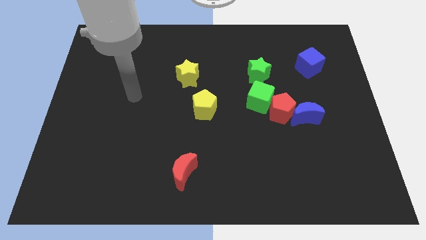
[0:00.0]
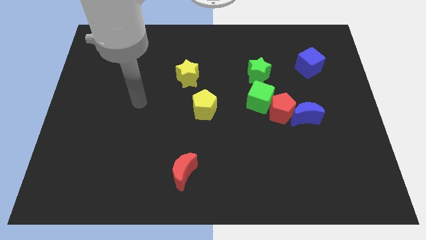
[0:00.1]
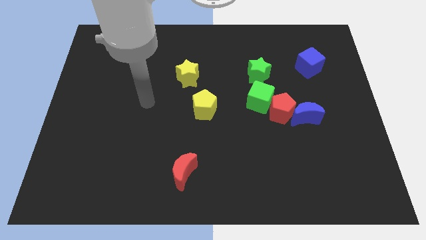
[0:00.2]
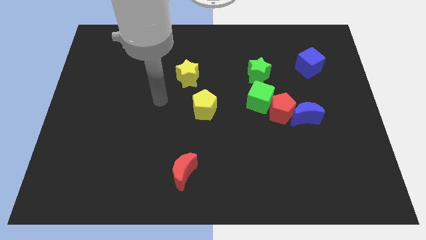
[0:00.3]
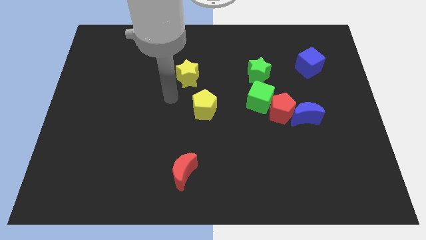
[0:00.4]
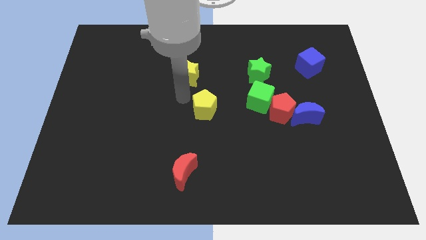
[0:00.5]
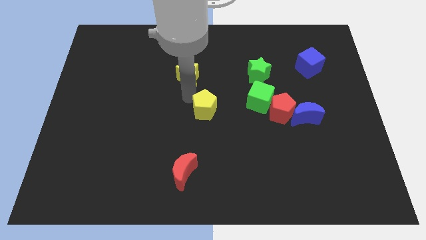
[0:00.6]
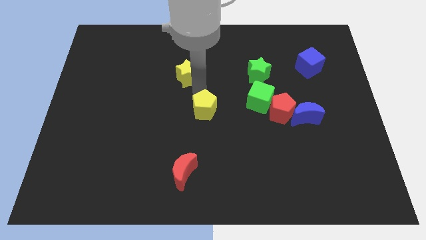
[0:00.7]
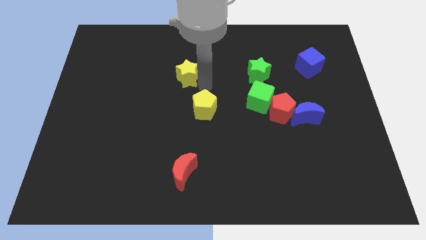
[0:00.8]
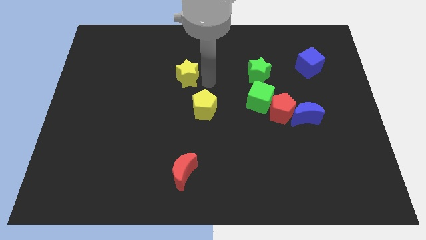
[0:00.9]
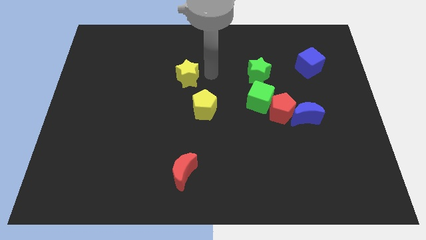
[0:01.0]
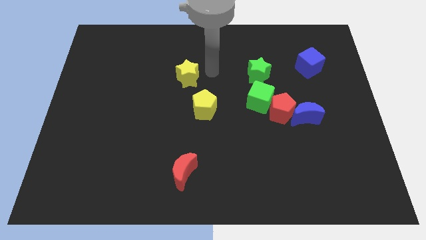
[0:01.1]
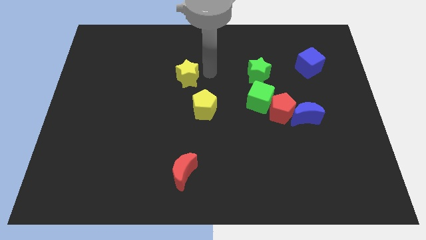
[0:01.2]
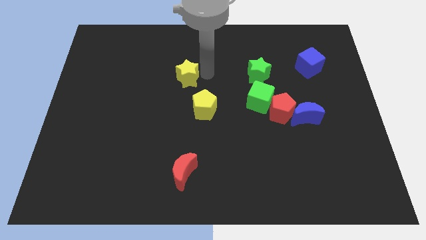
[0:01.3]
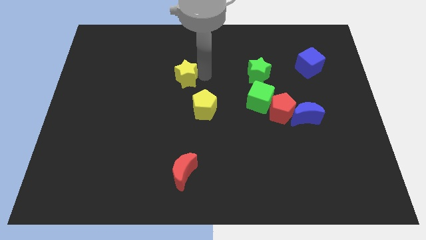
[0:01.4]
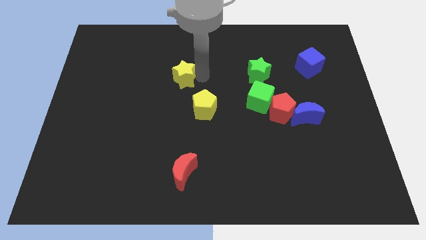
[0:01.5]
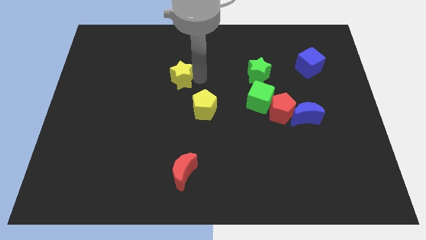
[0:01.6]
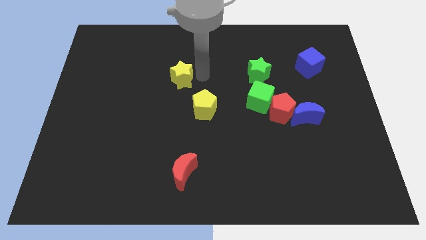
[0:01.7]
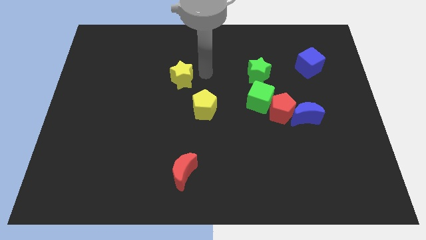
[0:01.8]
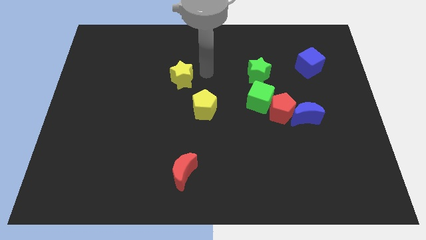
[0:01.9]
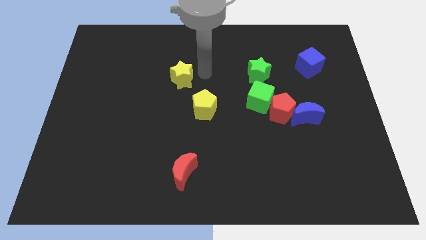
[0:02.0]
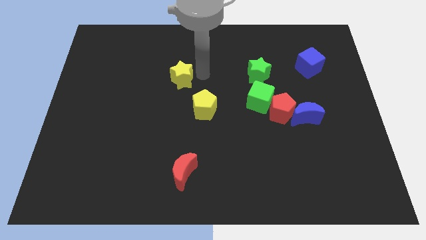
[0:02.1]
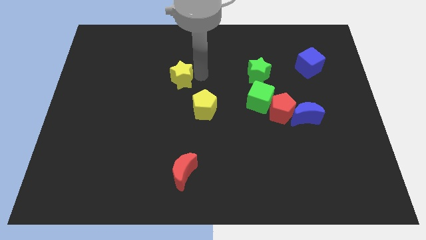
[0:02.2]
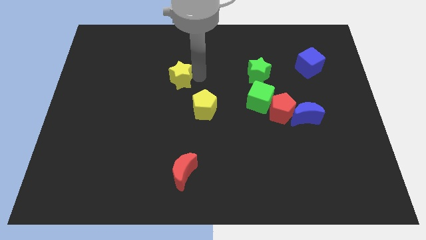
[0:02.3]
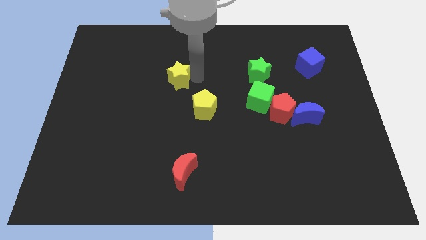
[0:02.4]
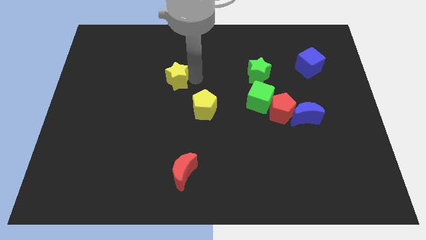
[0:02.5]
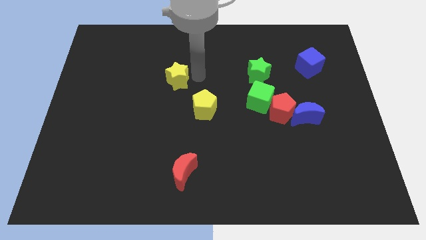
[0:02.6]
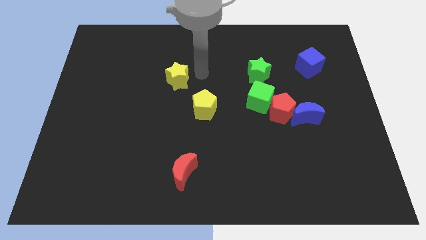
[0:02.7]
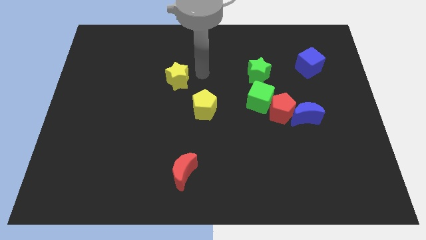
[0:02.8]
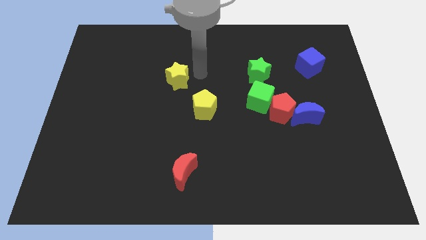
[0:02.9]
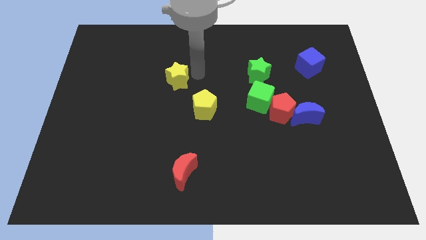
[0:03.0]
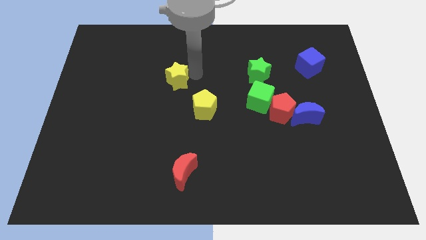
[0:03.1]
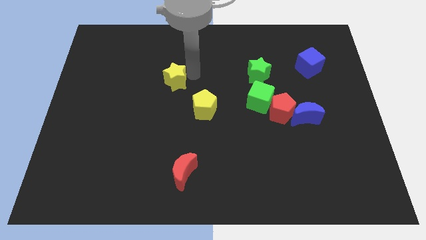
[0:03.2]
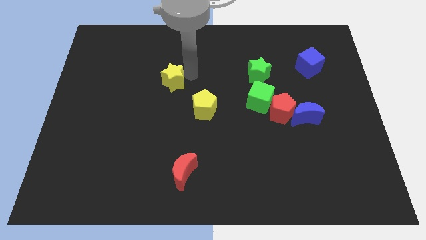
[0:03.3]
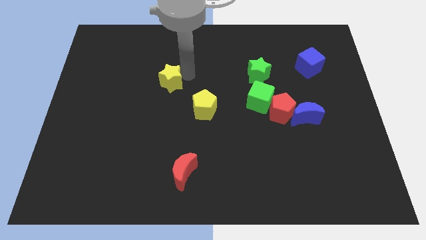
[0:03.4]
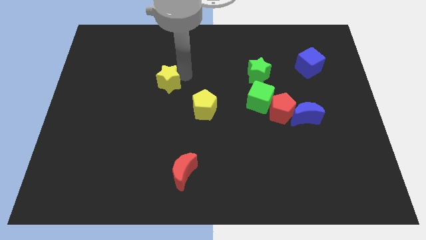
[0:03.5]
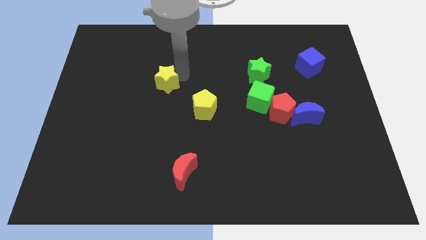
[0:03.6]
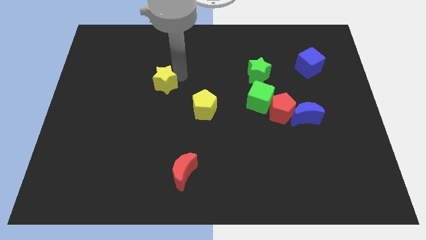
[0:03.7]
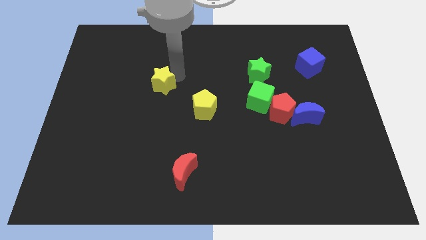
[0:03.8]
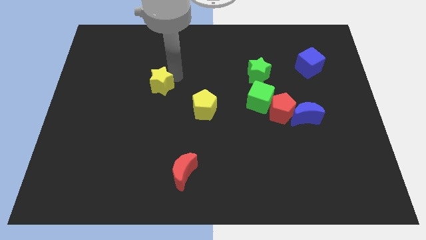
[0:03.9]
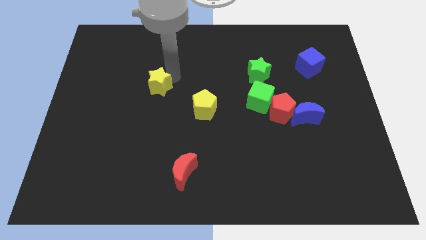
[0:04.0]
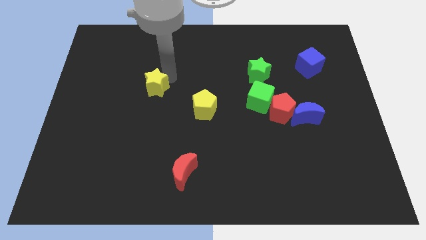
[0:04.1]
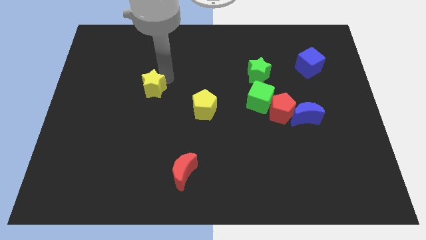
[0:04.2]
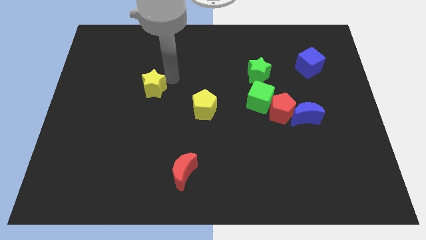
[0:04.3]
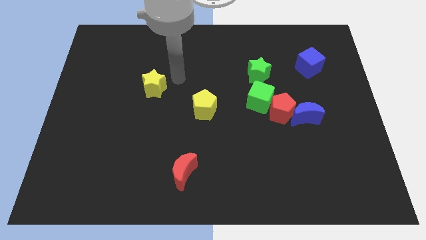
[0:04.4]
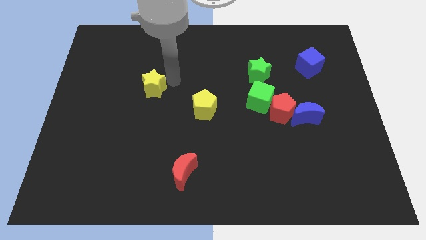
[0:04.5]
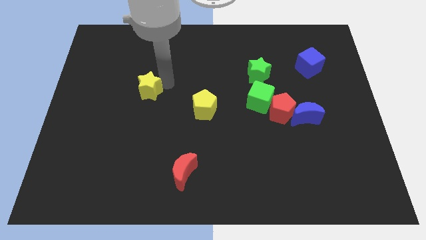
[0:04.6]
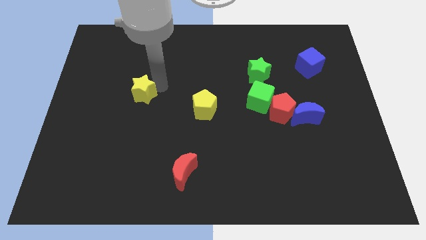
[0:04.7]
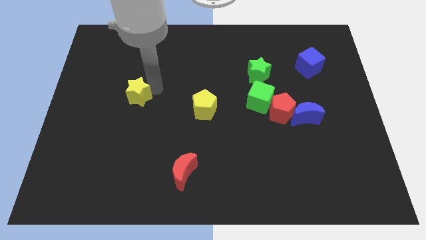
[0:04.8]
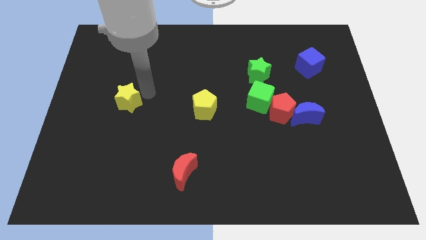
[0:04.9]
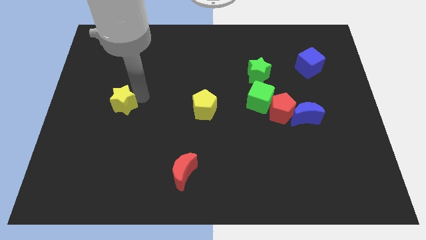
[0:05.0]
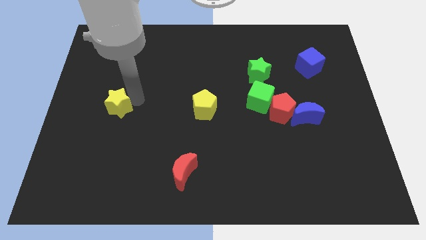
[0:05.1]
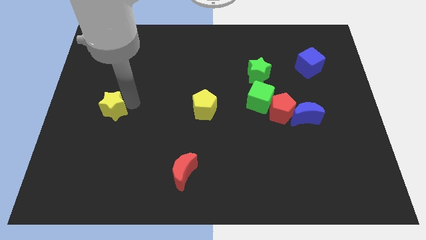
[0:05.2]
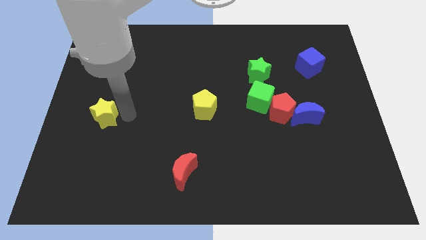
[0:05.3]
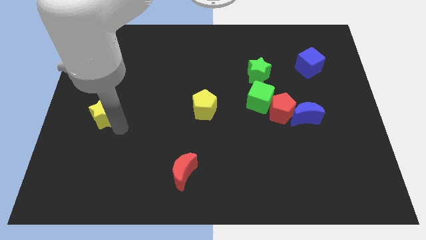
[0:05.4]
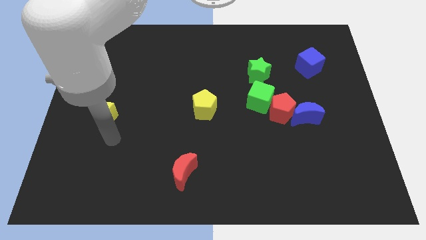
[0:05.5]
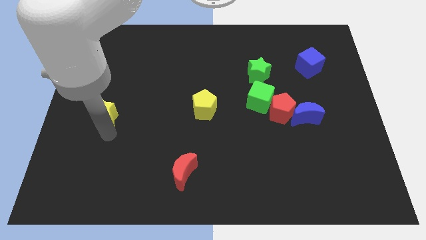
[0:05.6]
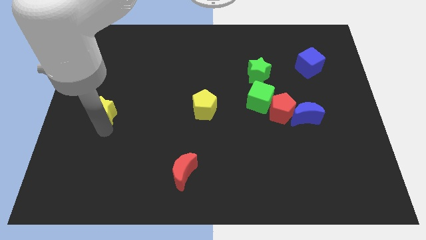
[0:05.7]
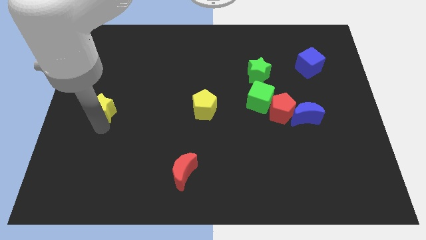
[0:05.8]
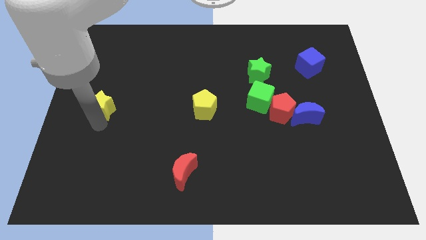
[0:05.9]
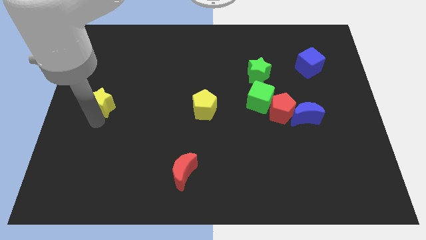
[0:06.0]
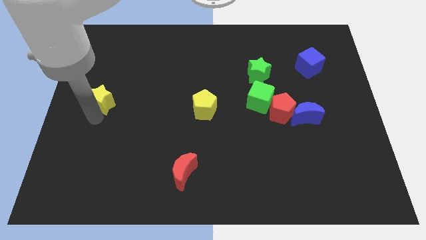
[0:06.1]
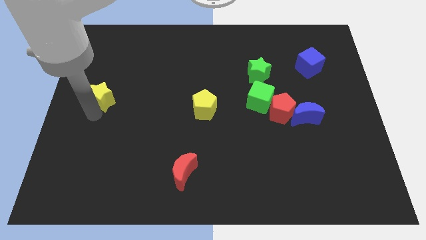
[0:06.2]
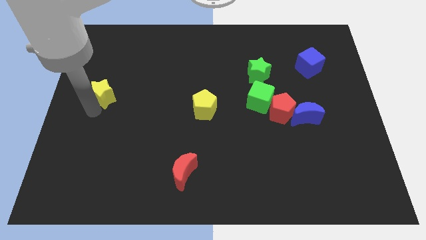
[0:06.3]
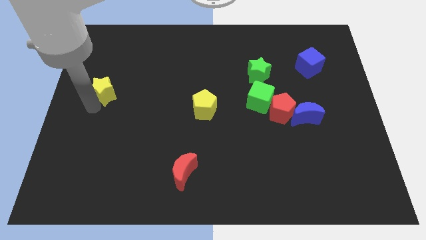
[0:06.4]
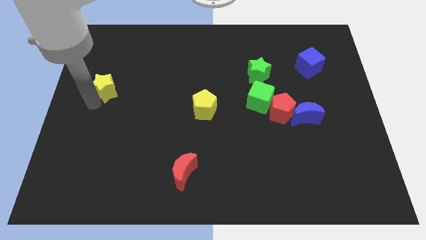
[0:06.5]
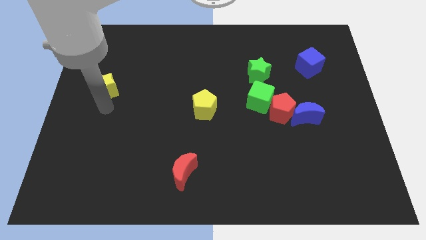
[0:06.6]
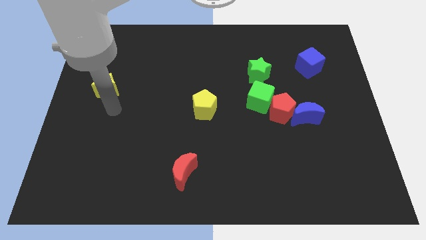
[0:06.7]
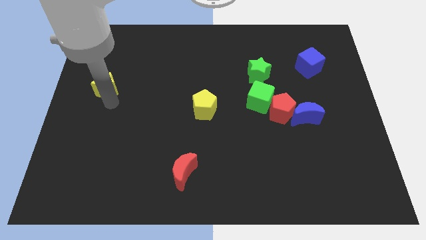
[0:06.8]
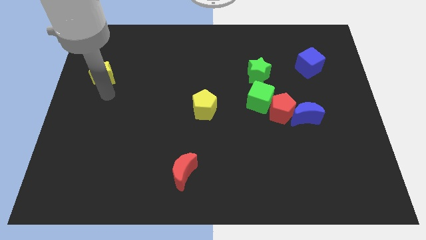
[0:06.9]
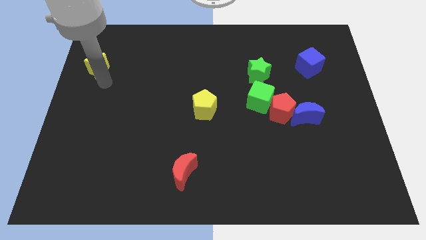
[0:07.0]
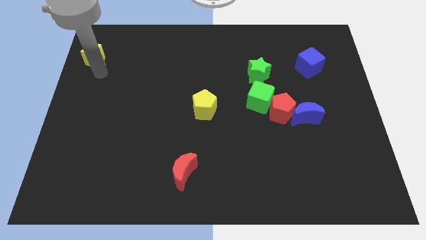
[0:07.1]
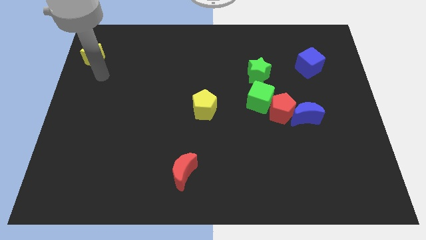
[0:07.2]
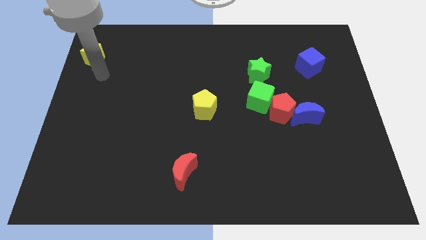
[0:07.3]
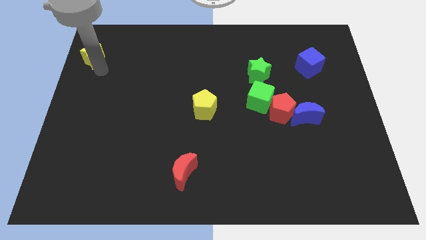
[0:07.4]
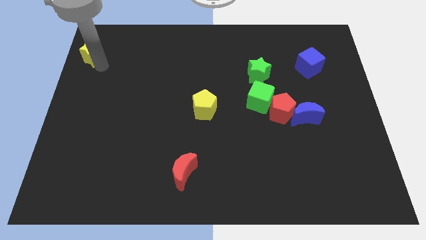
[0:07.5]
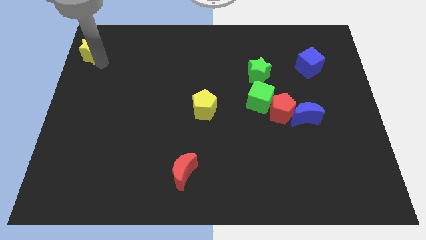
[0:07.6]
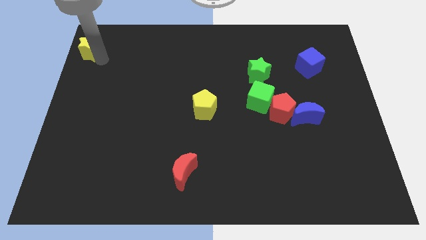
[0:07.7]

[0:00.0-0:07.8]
slide the yellow star to the top left

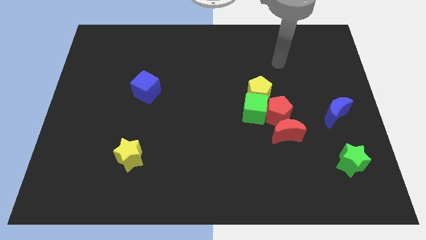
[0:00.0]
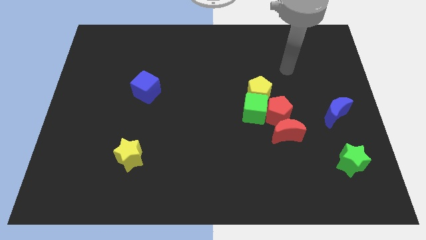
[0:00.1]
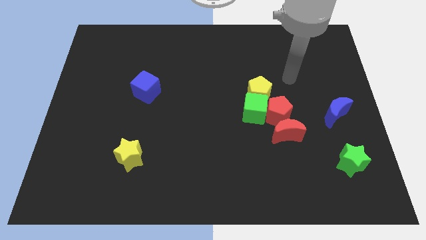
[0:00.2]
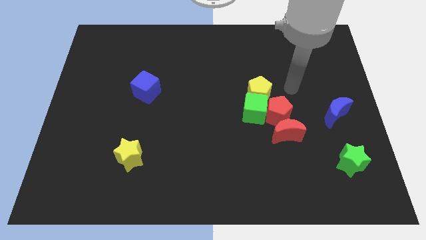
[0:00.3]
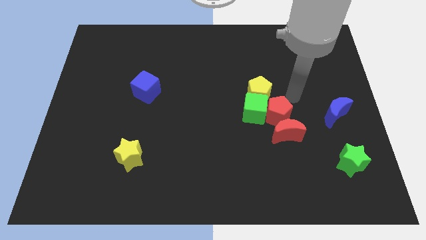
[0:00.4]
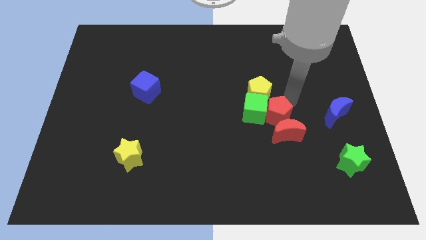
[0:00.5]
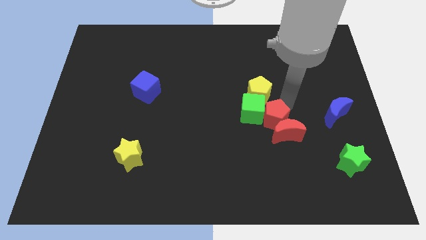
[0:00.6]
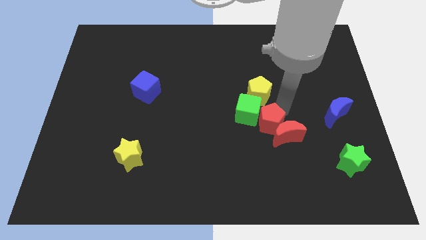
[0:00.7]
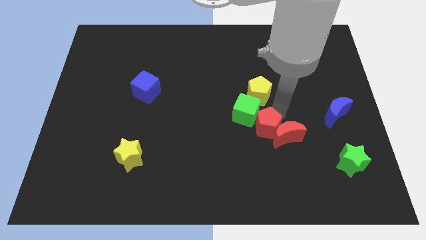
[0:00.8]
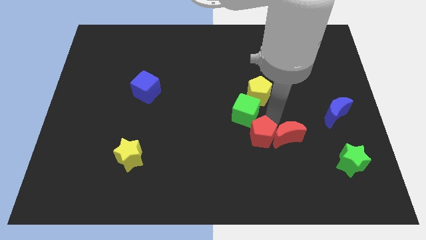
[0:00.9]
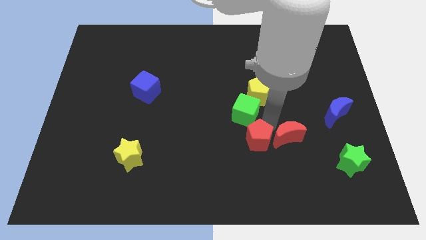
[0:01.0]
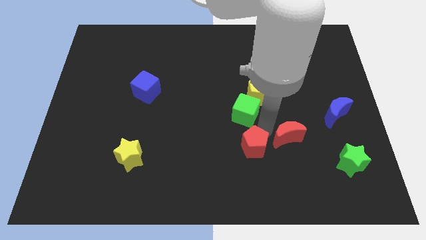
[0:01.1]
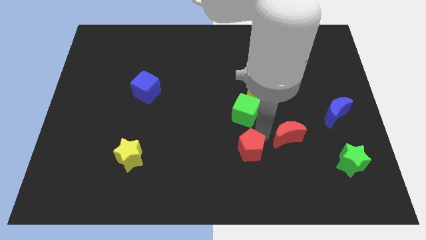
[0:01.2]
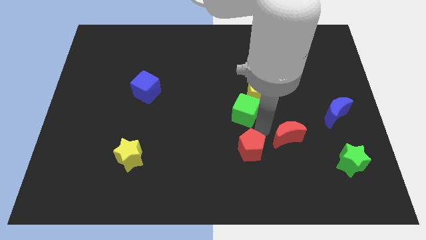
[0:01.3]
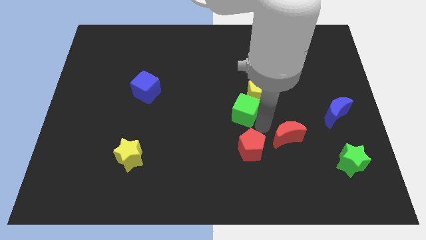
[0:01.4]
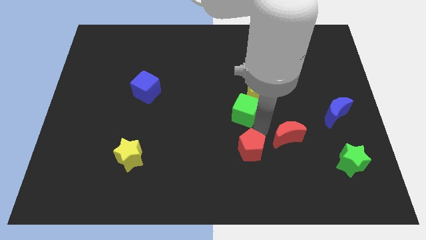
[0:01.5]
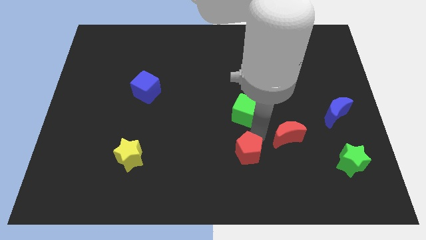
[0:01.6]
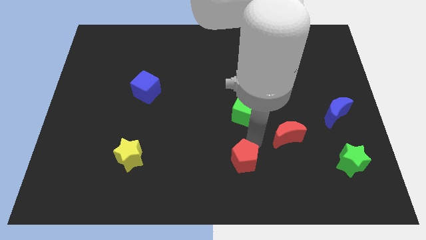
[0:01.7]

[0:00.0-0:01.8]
slide the red pentagon to the bottom
